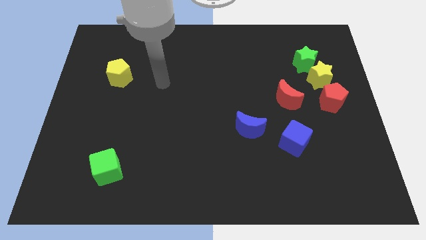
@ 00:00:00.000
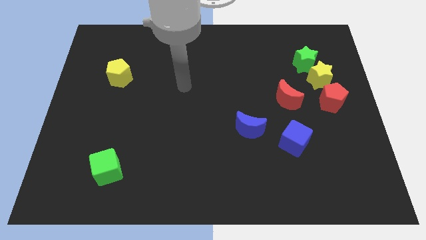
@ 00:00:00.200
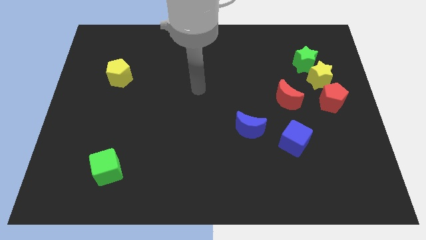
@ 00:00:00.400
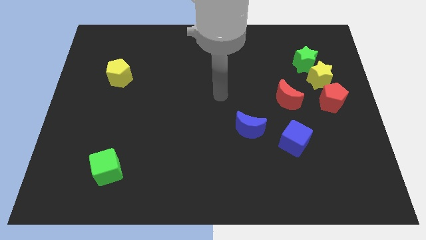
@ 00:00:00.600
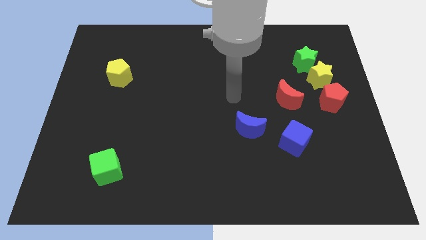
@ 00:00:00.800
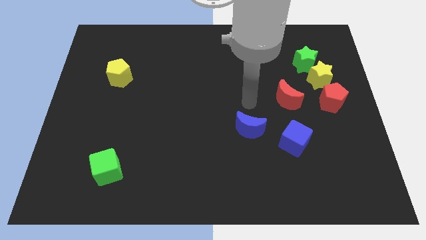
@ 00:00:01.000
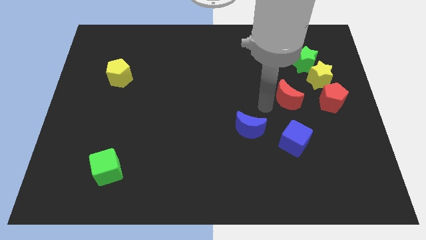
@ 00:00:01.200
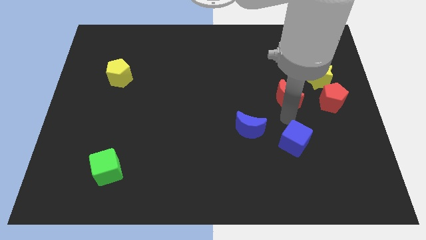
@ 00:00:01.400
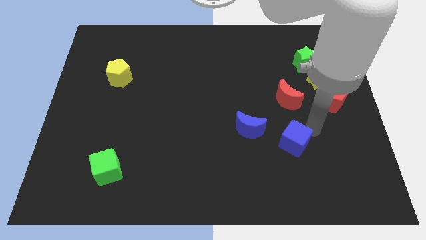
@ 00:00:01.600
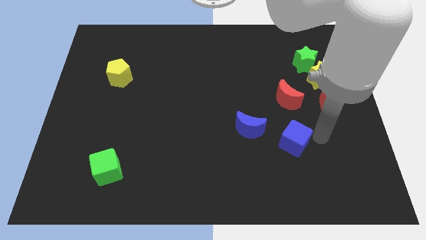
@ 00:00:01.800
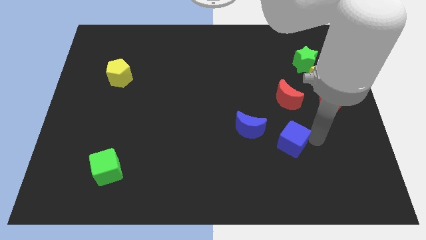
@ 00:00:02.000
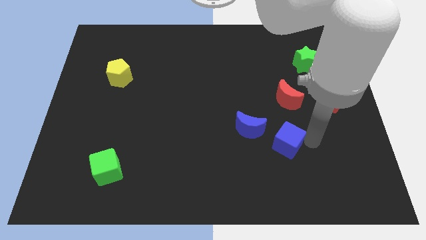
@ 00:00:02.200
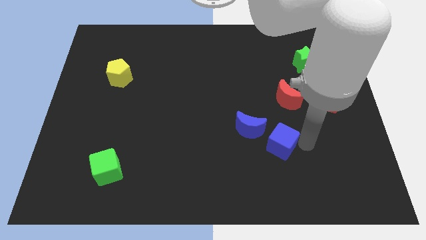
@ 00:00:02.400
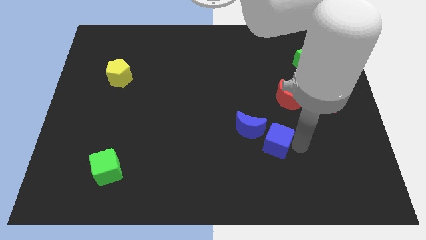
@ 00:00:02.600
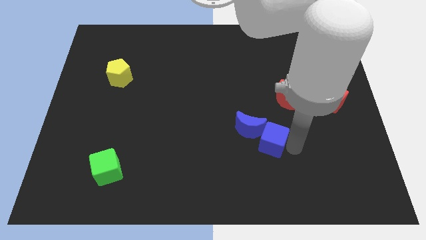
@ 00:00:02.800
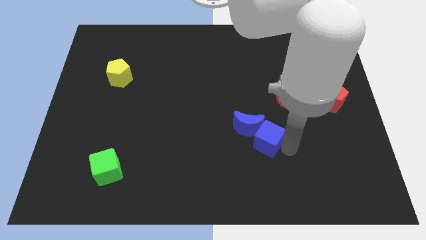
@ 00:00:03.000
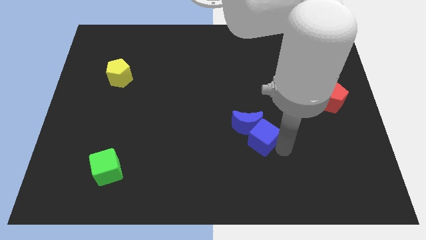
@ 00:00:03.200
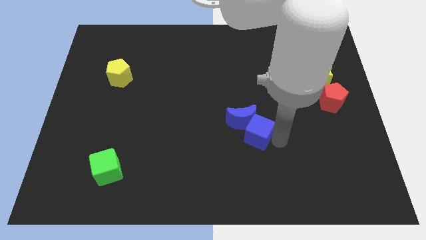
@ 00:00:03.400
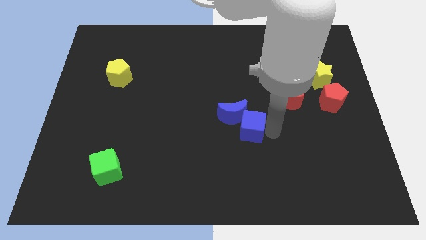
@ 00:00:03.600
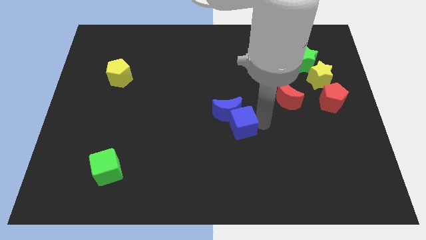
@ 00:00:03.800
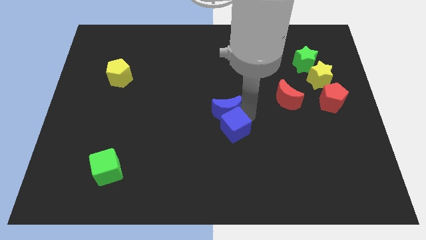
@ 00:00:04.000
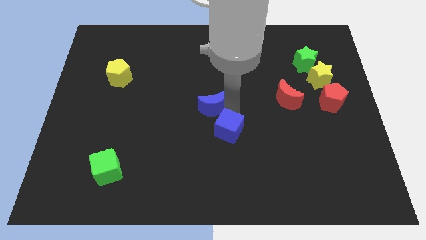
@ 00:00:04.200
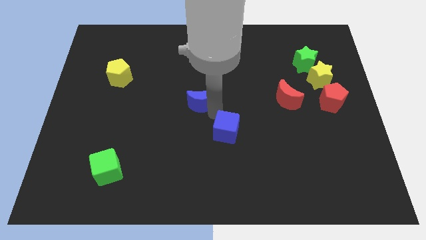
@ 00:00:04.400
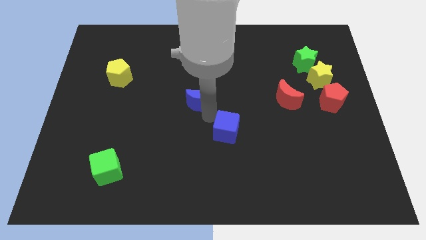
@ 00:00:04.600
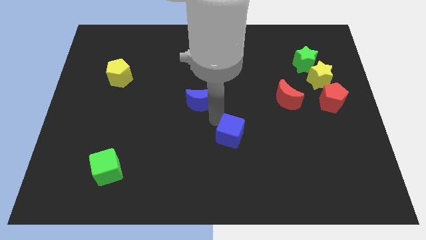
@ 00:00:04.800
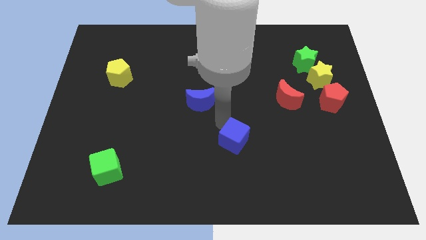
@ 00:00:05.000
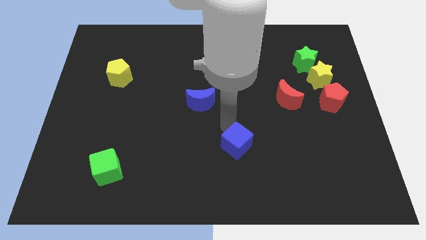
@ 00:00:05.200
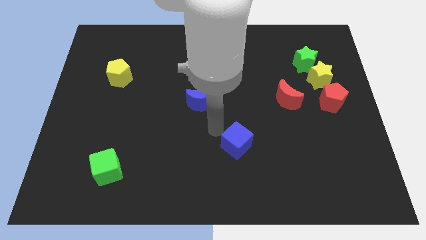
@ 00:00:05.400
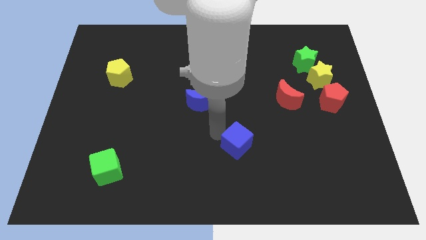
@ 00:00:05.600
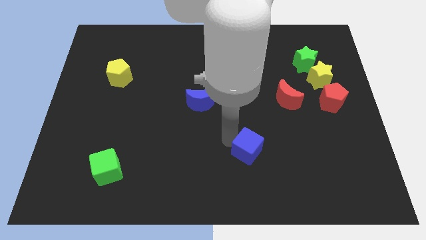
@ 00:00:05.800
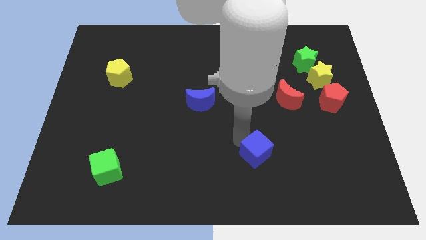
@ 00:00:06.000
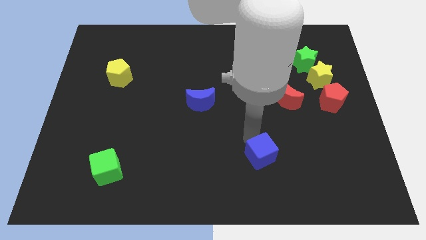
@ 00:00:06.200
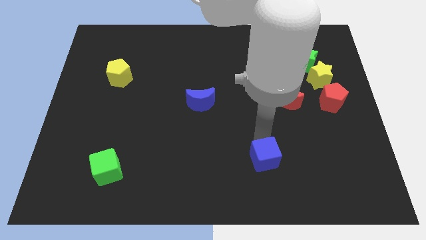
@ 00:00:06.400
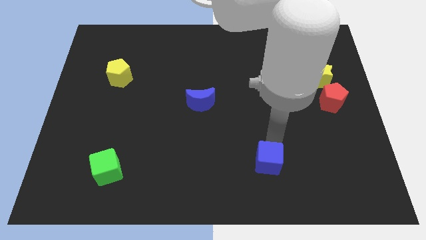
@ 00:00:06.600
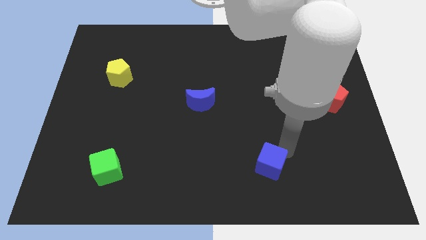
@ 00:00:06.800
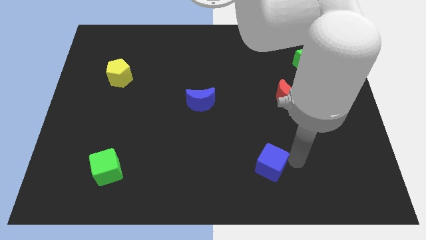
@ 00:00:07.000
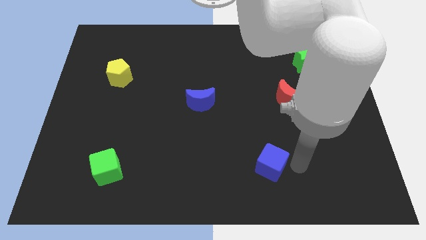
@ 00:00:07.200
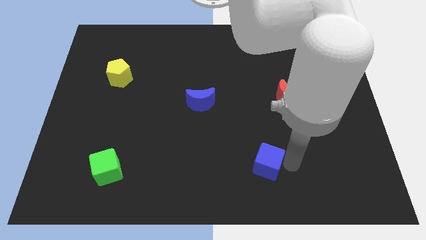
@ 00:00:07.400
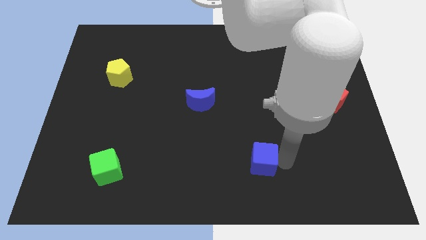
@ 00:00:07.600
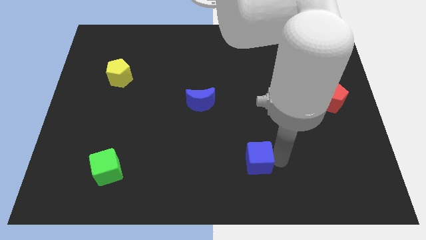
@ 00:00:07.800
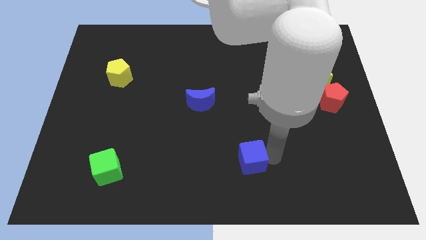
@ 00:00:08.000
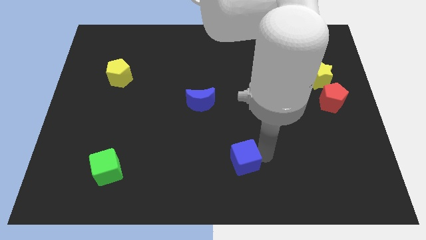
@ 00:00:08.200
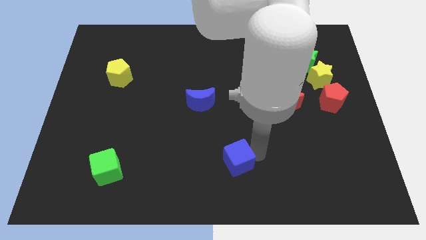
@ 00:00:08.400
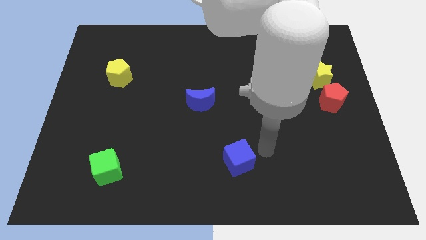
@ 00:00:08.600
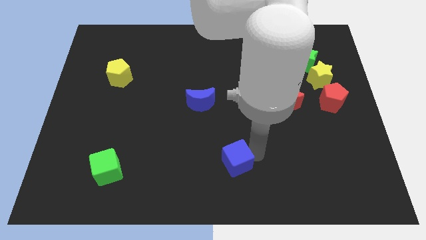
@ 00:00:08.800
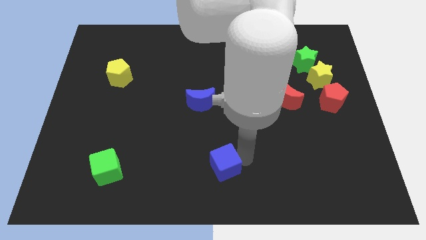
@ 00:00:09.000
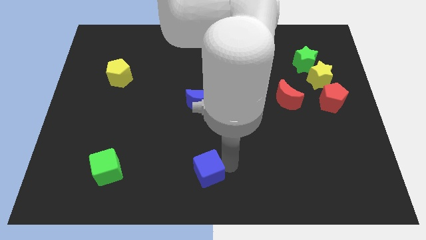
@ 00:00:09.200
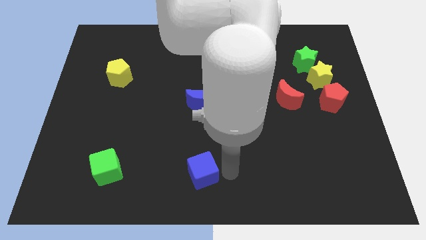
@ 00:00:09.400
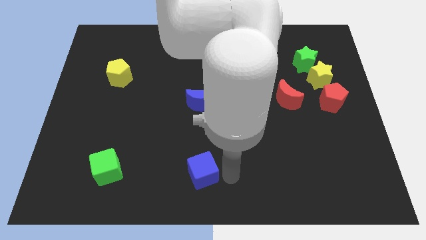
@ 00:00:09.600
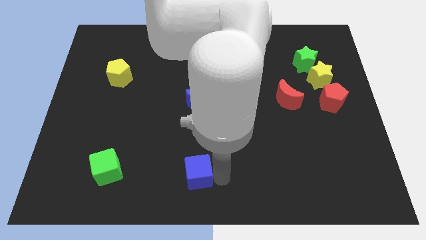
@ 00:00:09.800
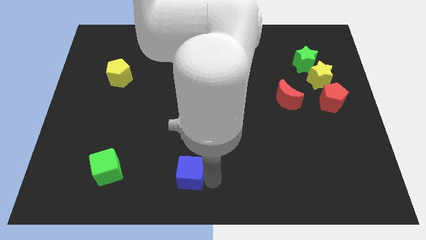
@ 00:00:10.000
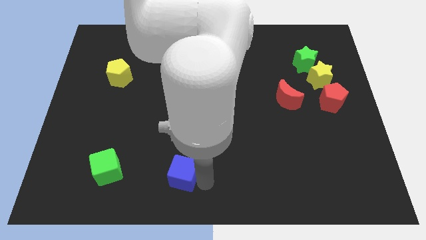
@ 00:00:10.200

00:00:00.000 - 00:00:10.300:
move the blue cube just right of the green cube

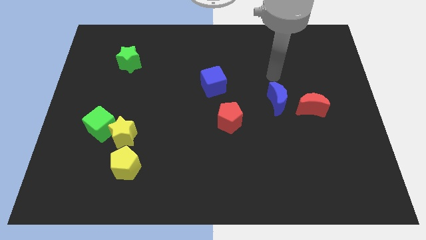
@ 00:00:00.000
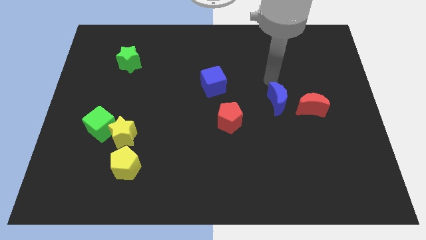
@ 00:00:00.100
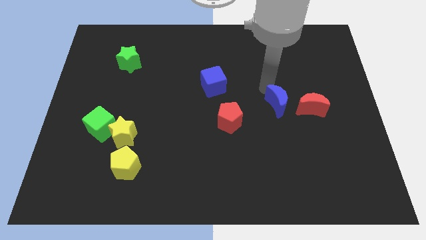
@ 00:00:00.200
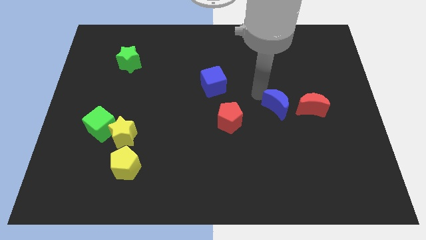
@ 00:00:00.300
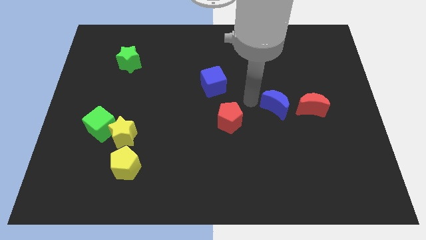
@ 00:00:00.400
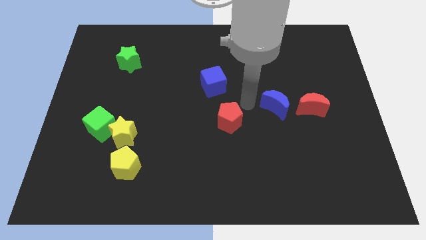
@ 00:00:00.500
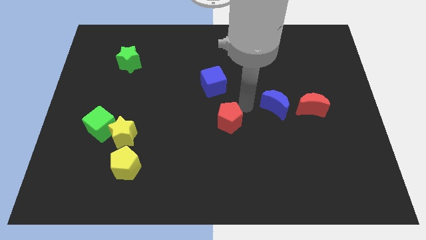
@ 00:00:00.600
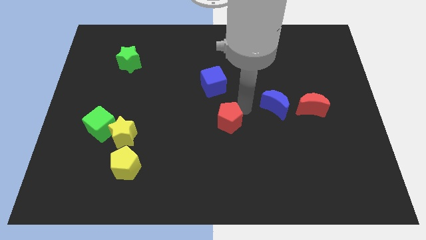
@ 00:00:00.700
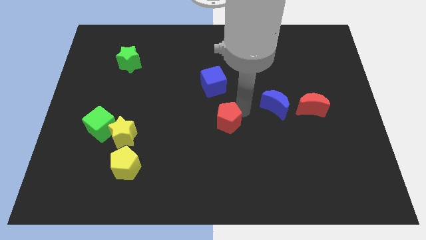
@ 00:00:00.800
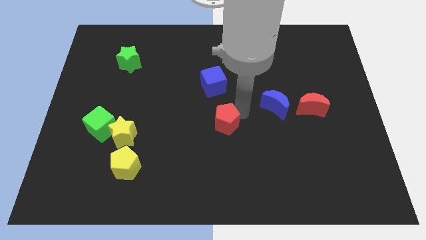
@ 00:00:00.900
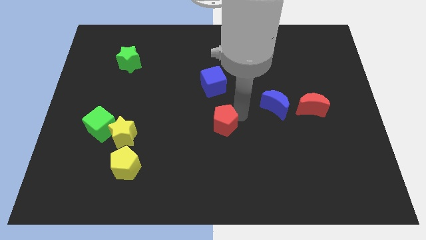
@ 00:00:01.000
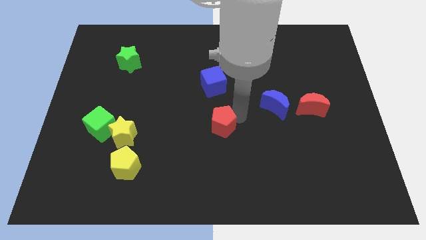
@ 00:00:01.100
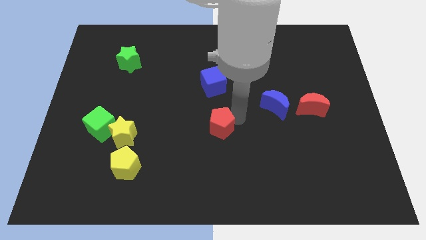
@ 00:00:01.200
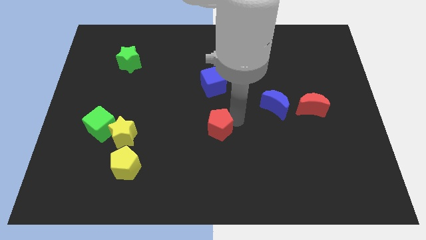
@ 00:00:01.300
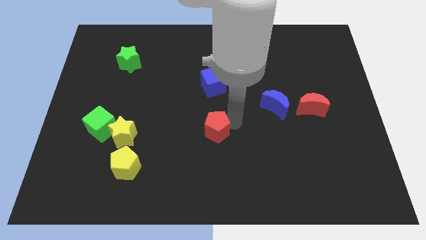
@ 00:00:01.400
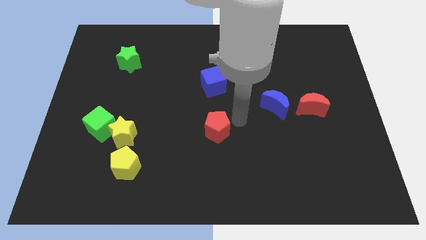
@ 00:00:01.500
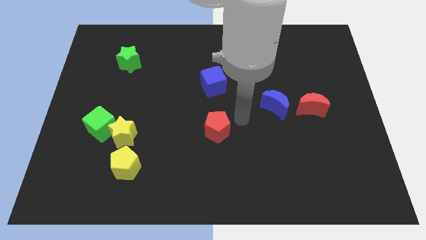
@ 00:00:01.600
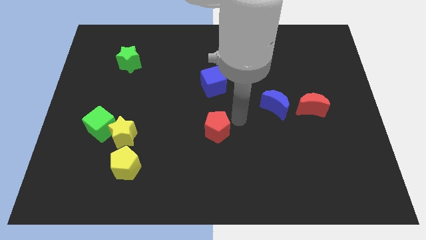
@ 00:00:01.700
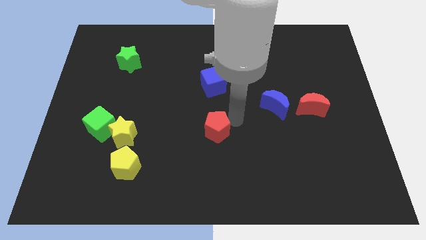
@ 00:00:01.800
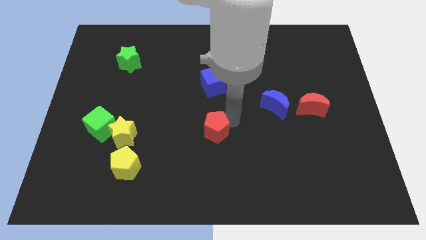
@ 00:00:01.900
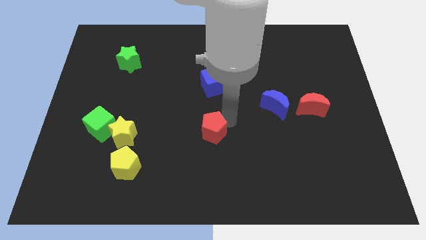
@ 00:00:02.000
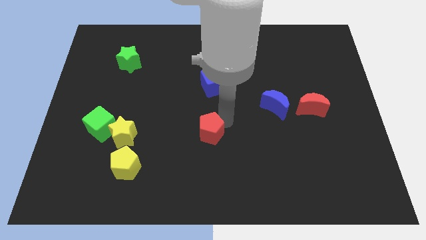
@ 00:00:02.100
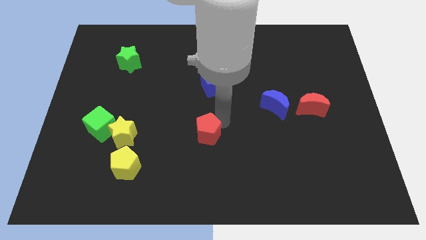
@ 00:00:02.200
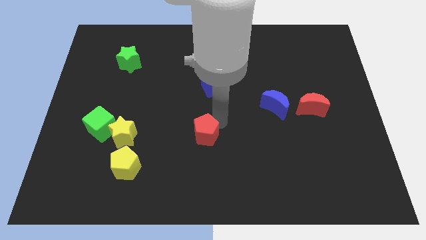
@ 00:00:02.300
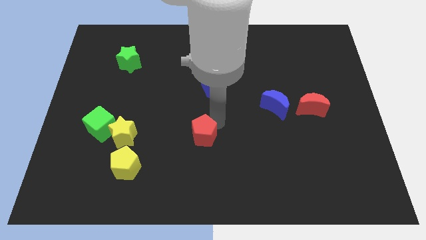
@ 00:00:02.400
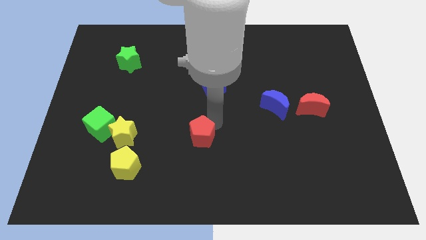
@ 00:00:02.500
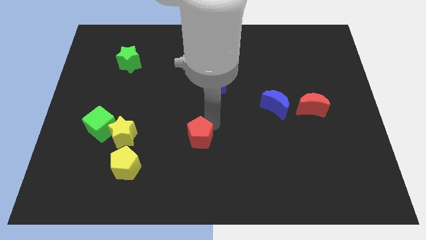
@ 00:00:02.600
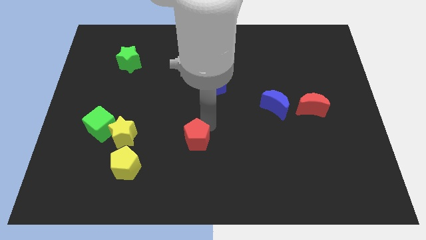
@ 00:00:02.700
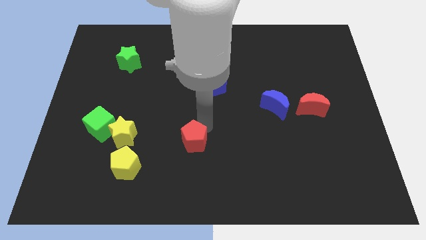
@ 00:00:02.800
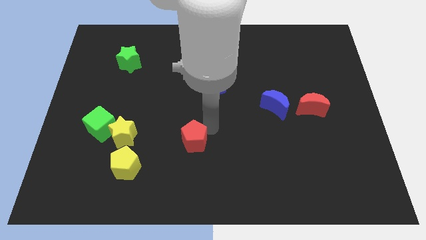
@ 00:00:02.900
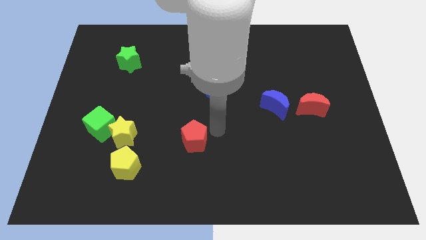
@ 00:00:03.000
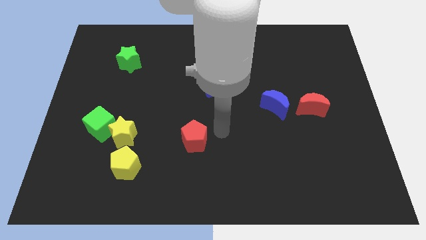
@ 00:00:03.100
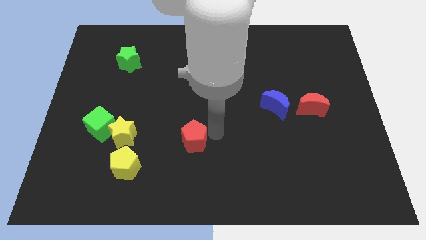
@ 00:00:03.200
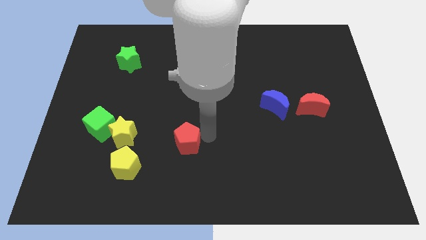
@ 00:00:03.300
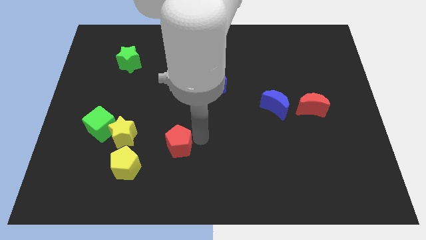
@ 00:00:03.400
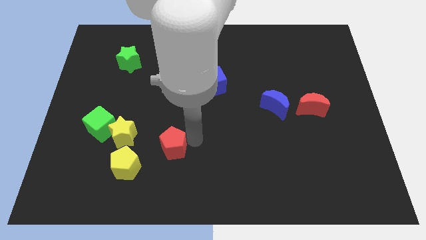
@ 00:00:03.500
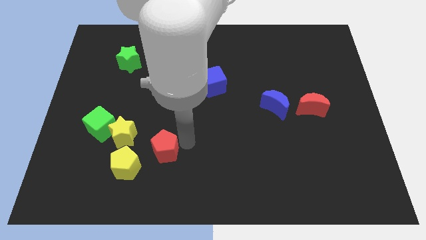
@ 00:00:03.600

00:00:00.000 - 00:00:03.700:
put the red pentagon diagonally down and to the right of the yellow star
